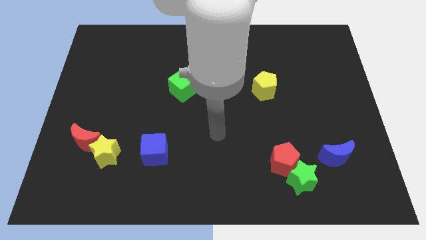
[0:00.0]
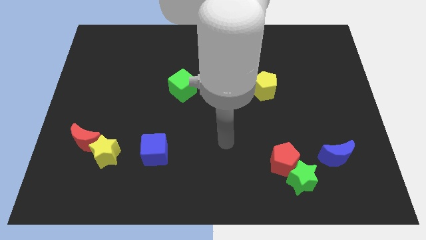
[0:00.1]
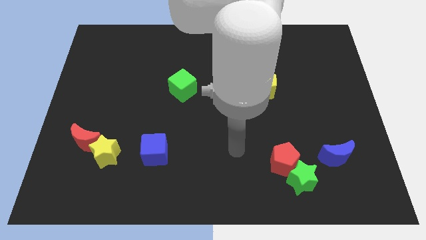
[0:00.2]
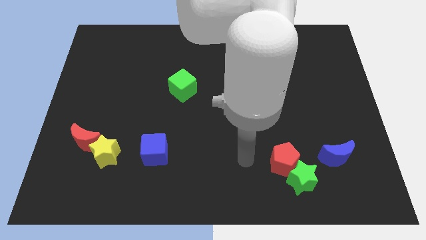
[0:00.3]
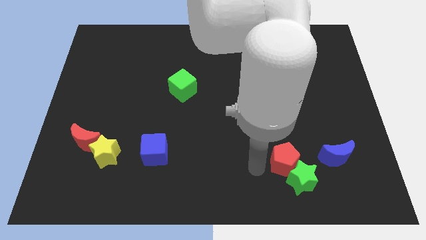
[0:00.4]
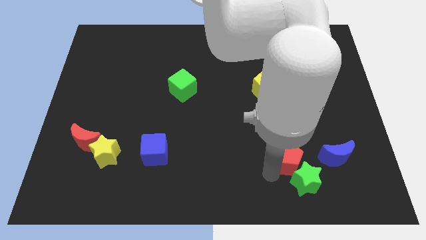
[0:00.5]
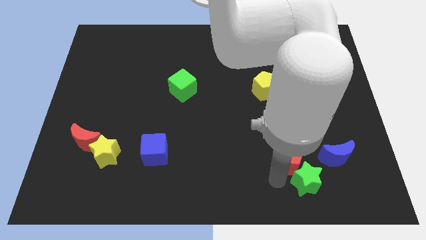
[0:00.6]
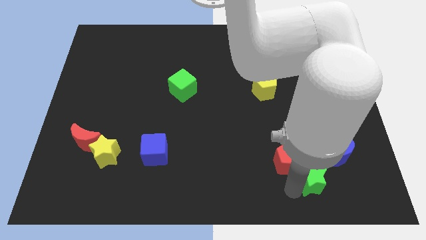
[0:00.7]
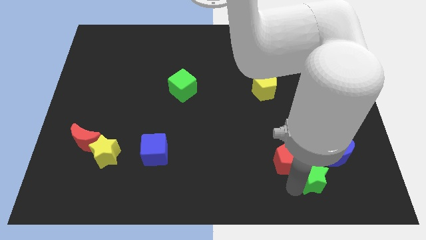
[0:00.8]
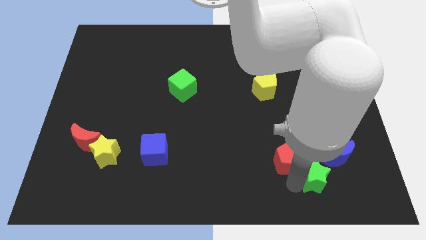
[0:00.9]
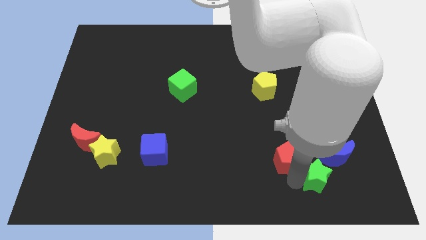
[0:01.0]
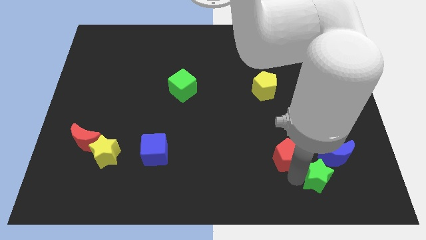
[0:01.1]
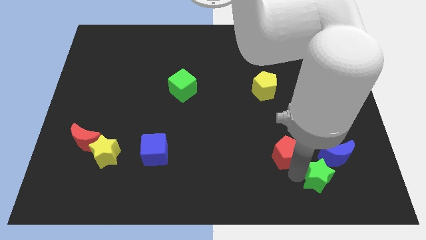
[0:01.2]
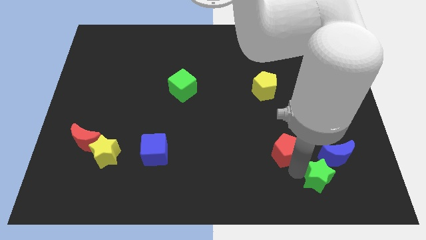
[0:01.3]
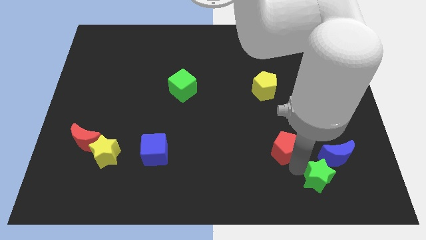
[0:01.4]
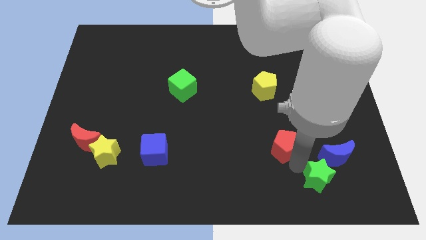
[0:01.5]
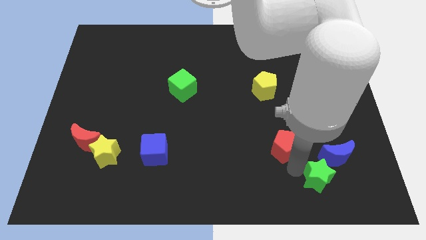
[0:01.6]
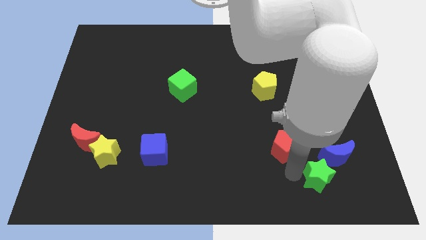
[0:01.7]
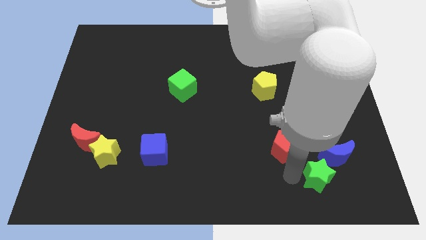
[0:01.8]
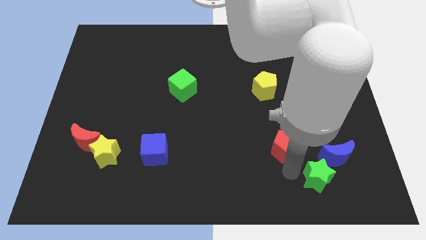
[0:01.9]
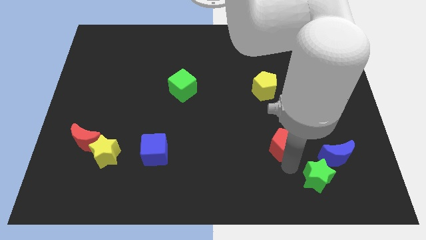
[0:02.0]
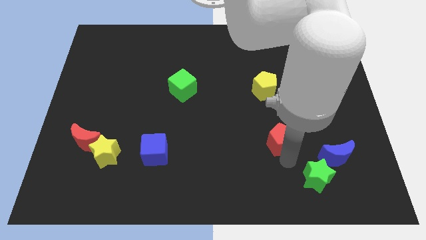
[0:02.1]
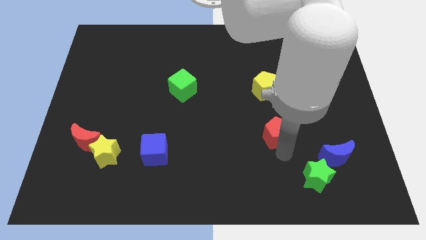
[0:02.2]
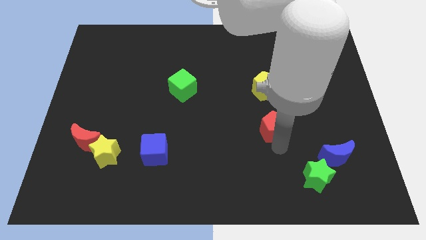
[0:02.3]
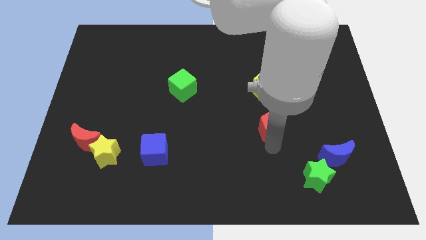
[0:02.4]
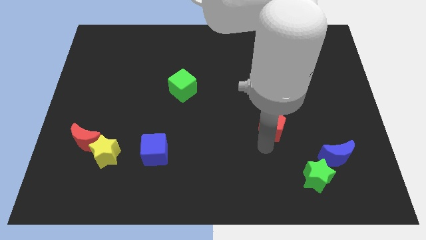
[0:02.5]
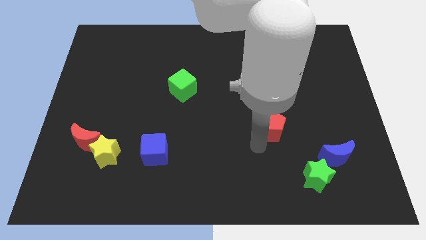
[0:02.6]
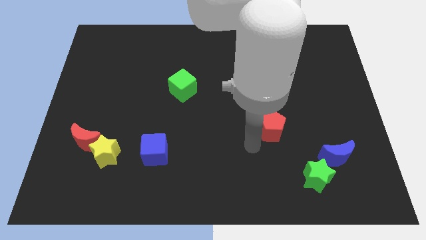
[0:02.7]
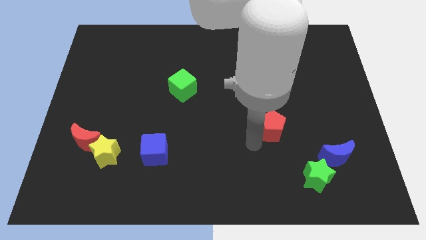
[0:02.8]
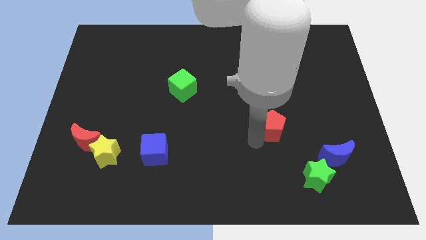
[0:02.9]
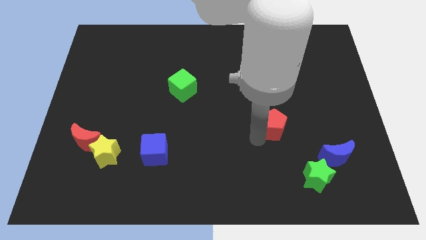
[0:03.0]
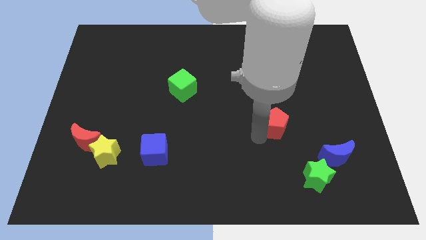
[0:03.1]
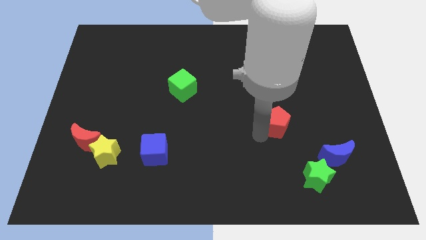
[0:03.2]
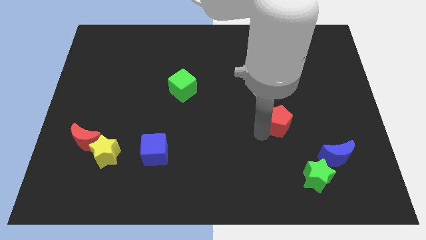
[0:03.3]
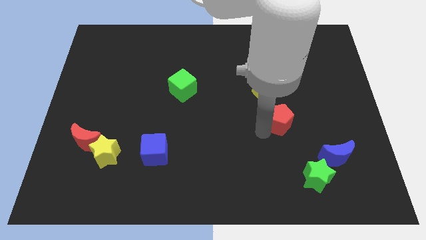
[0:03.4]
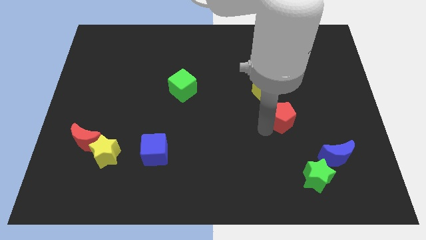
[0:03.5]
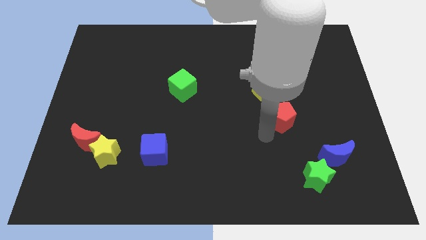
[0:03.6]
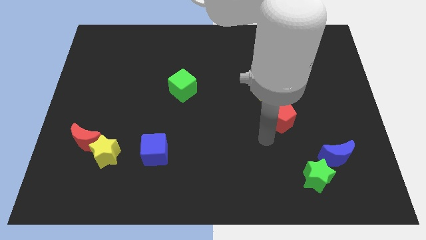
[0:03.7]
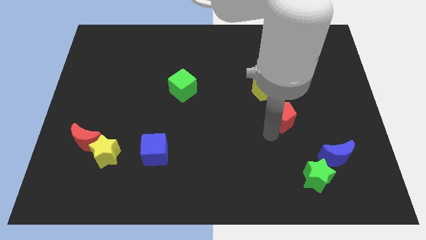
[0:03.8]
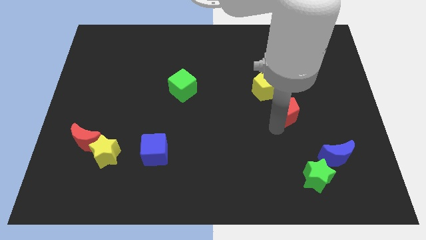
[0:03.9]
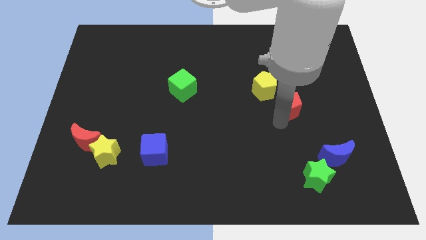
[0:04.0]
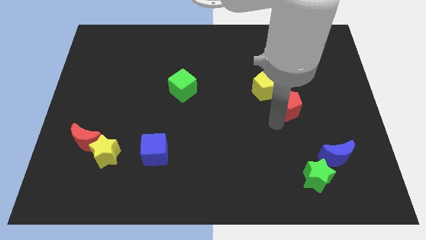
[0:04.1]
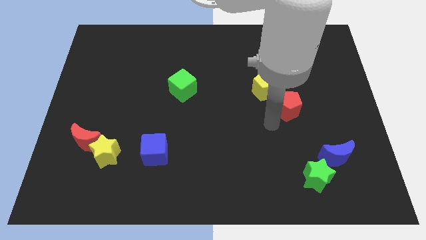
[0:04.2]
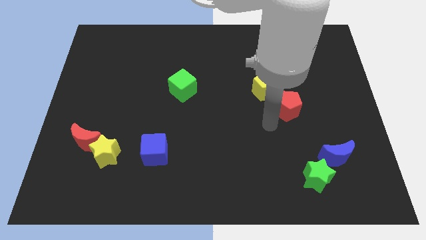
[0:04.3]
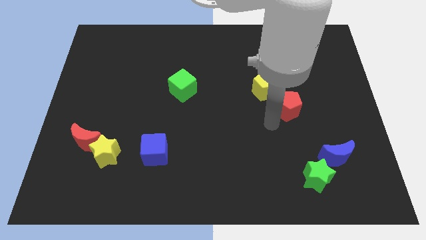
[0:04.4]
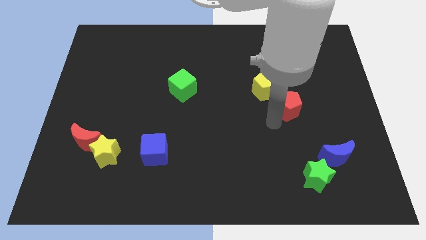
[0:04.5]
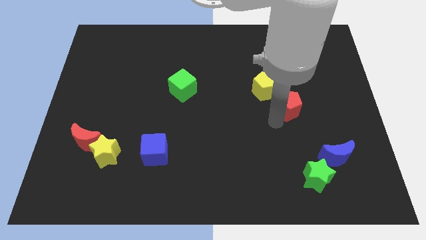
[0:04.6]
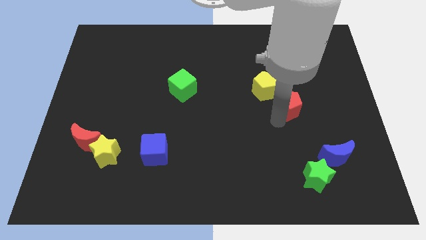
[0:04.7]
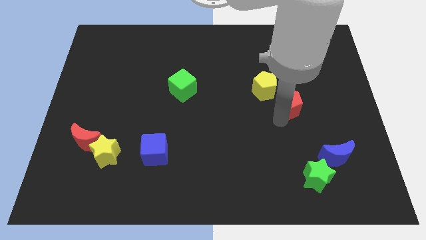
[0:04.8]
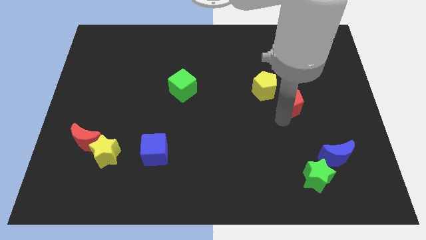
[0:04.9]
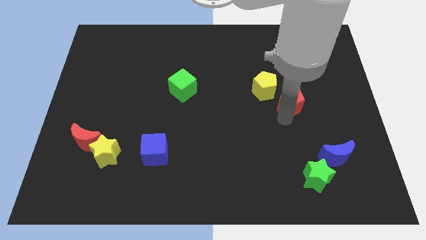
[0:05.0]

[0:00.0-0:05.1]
move the red pentagon just right of the yellow pentagon

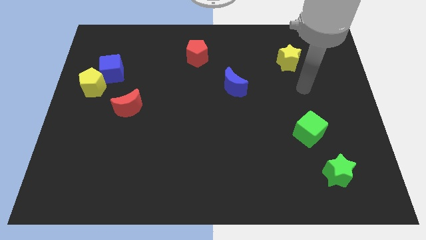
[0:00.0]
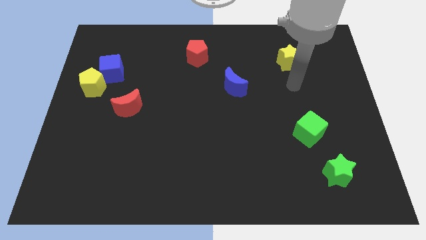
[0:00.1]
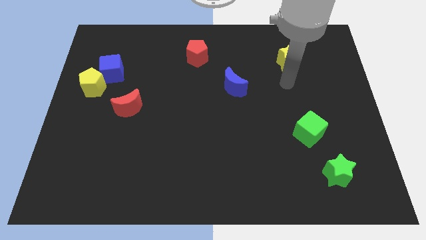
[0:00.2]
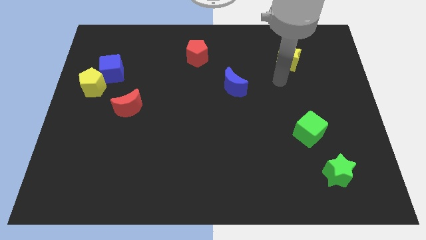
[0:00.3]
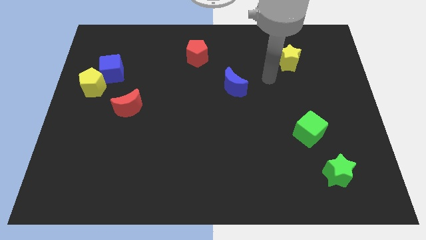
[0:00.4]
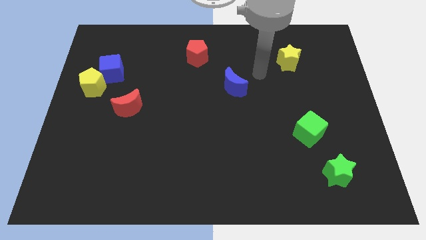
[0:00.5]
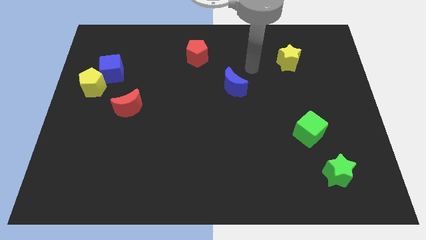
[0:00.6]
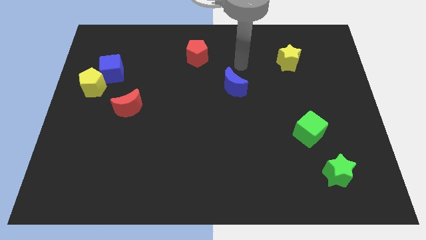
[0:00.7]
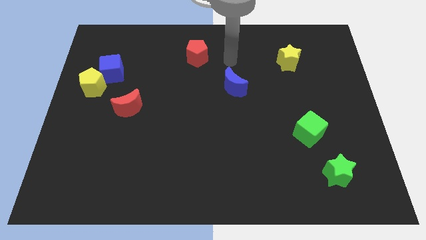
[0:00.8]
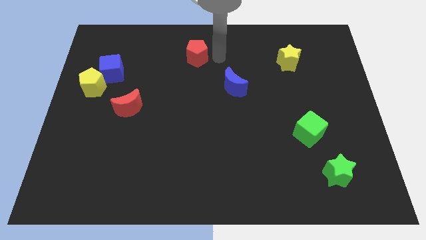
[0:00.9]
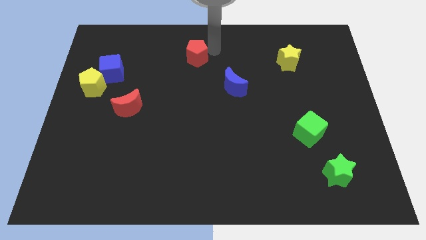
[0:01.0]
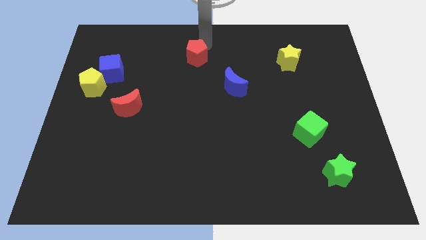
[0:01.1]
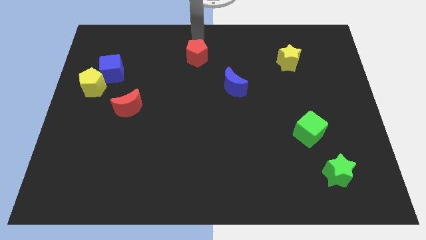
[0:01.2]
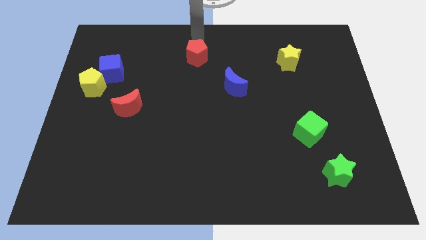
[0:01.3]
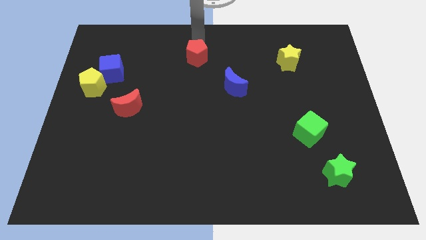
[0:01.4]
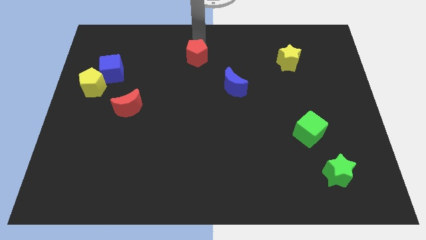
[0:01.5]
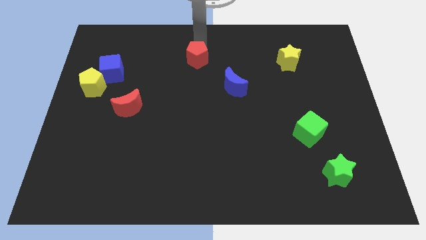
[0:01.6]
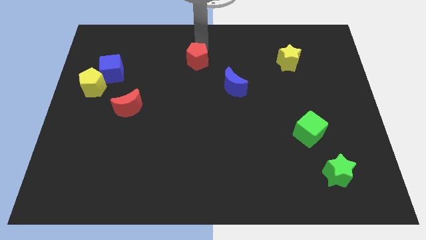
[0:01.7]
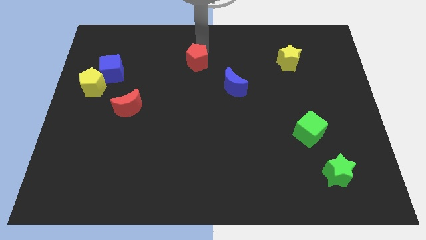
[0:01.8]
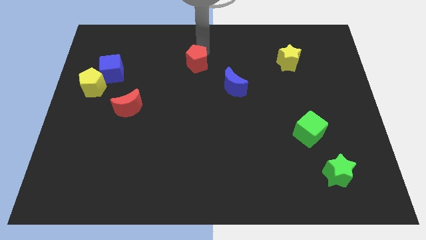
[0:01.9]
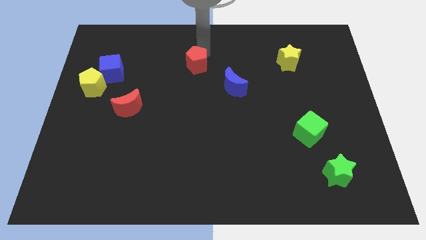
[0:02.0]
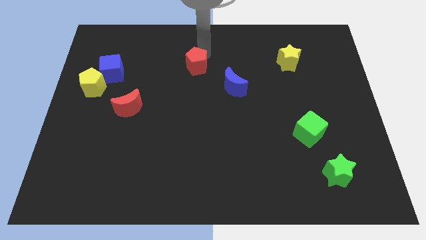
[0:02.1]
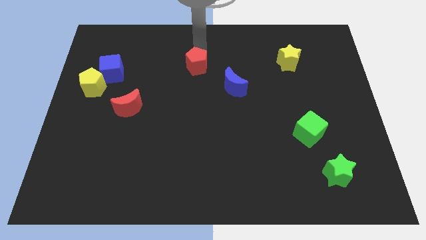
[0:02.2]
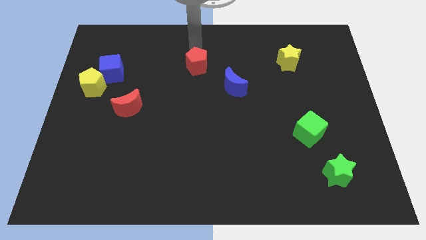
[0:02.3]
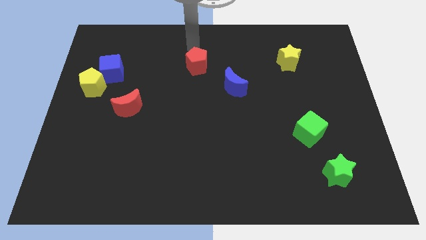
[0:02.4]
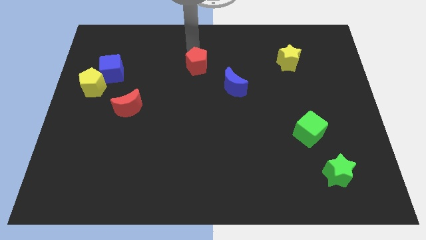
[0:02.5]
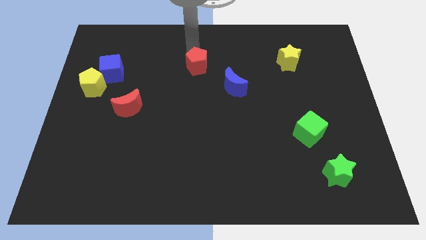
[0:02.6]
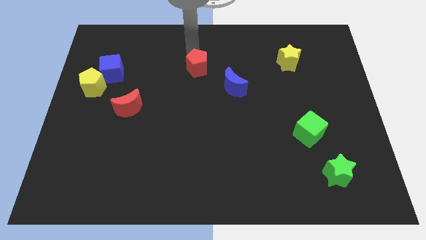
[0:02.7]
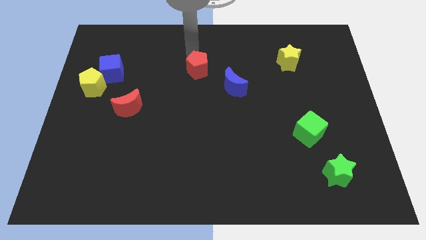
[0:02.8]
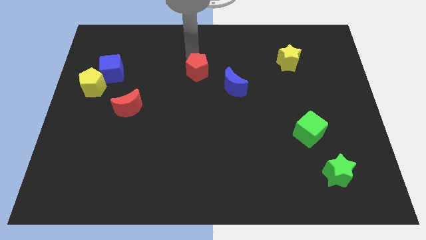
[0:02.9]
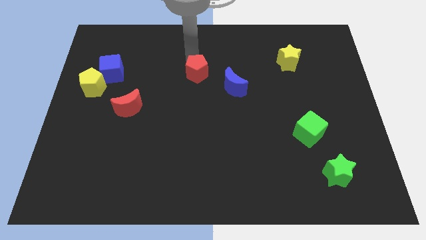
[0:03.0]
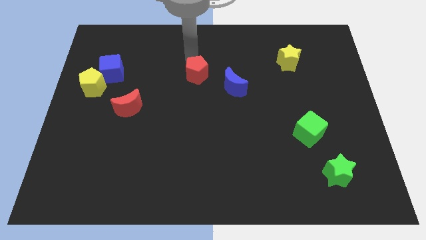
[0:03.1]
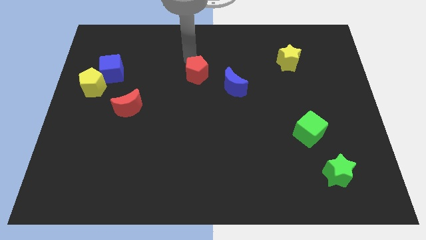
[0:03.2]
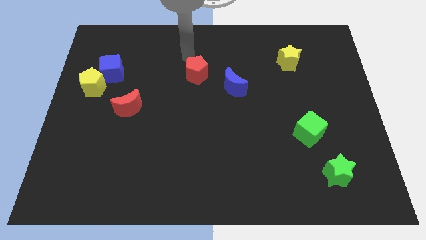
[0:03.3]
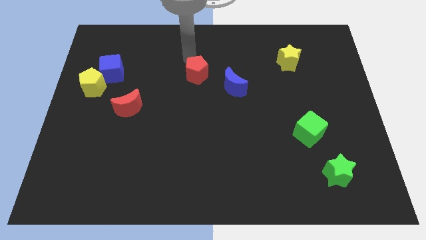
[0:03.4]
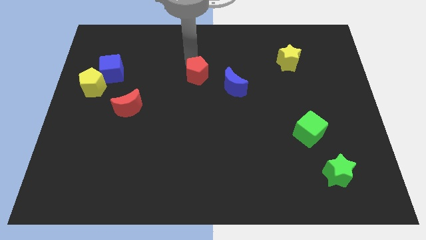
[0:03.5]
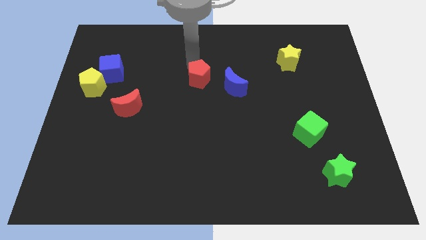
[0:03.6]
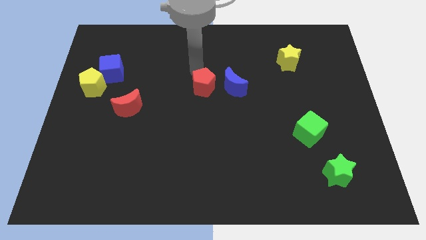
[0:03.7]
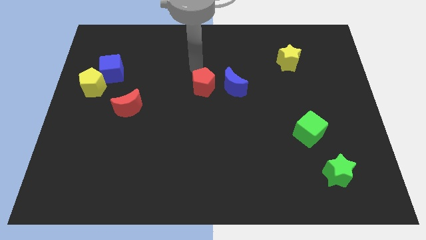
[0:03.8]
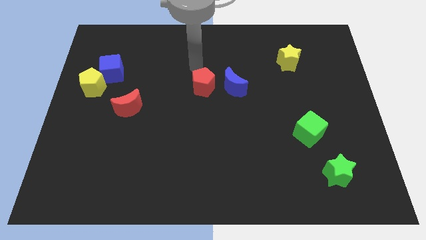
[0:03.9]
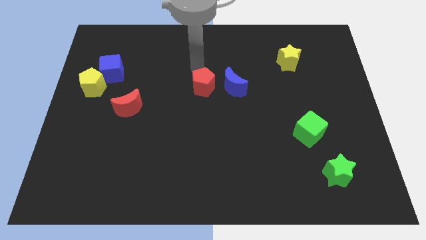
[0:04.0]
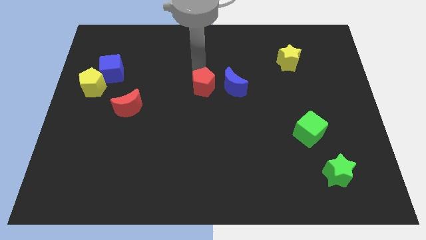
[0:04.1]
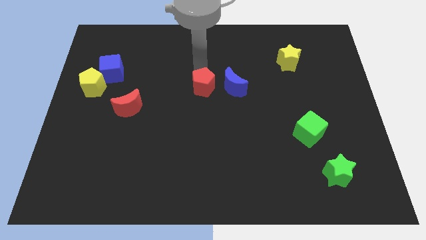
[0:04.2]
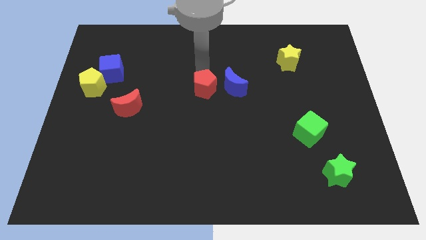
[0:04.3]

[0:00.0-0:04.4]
push the red pentagon to the bottom left side of the blue moon
